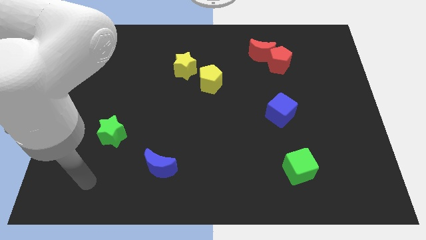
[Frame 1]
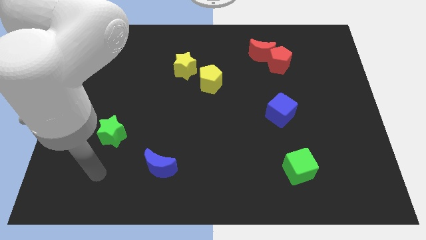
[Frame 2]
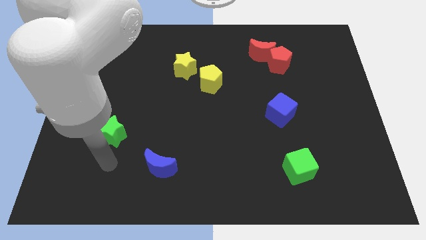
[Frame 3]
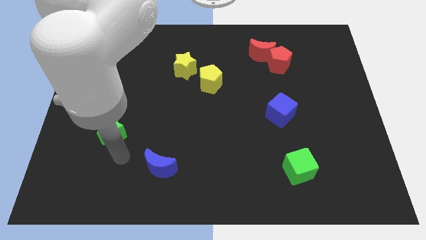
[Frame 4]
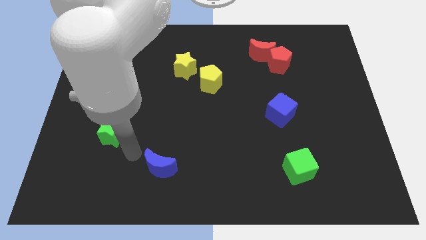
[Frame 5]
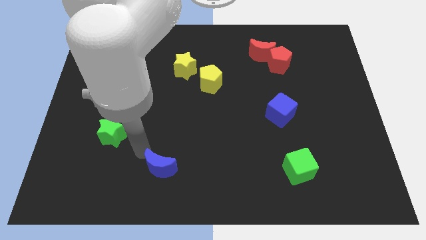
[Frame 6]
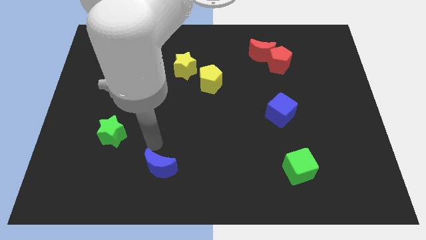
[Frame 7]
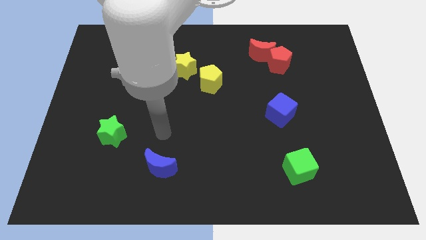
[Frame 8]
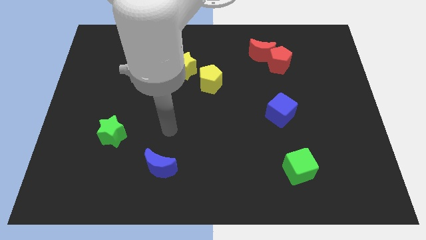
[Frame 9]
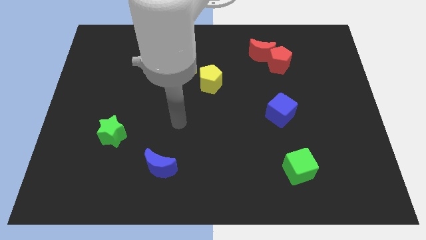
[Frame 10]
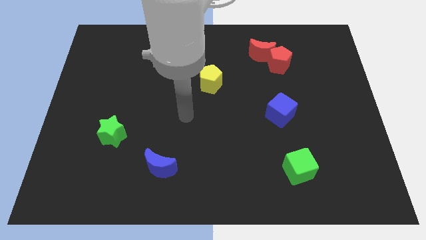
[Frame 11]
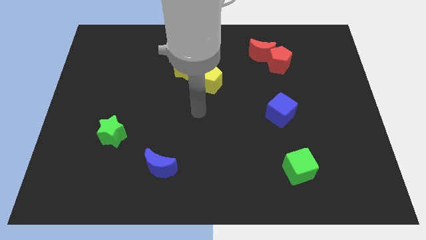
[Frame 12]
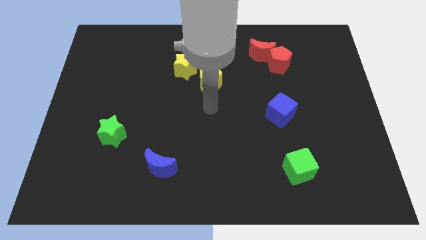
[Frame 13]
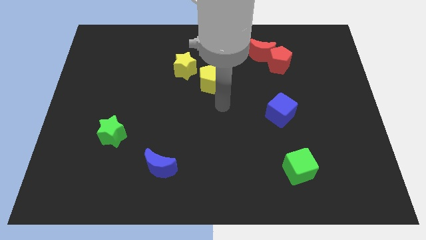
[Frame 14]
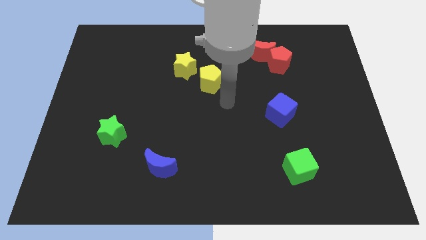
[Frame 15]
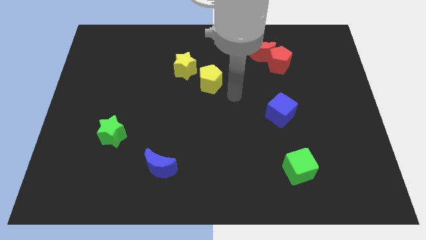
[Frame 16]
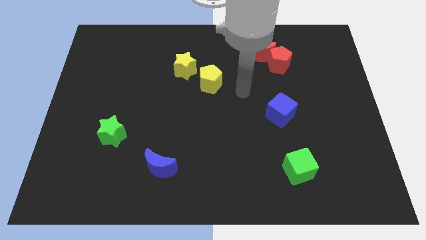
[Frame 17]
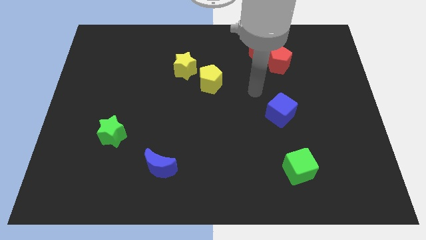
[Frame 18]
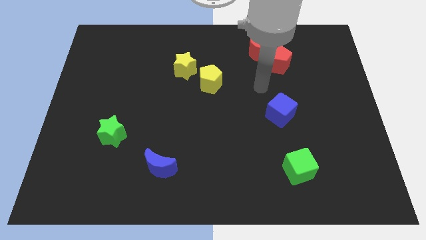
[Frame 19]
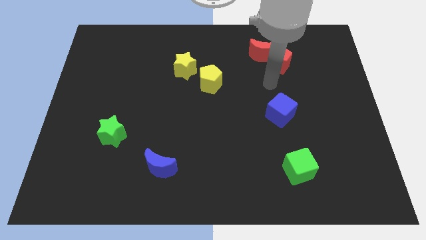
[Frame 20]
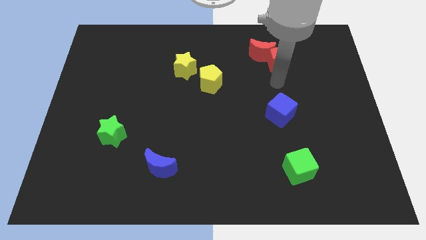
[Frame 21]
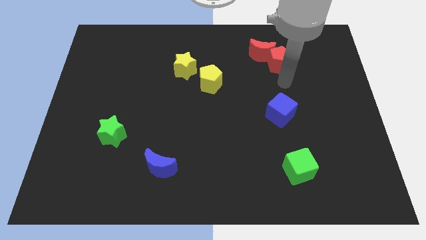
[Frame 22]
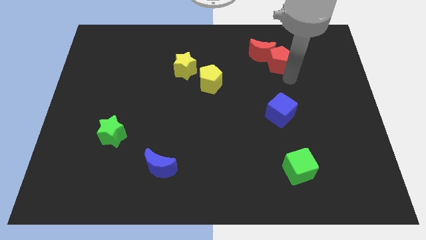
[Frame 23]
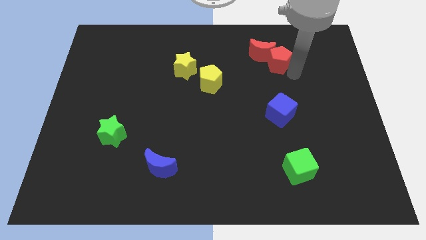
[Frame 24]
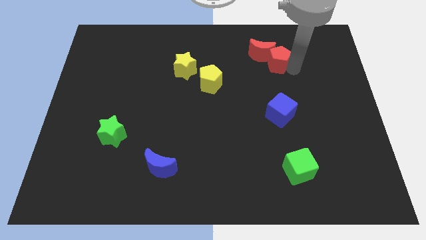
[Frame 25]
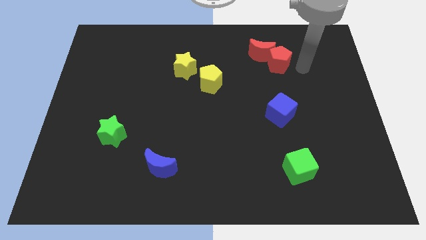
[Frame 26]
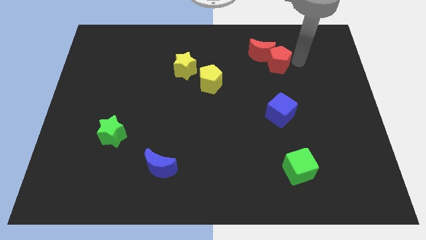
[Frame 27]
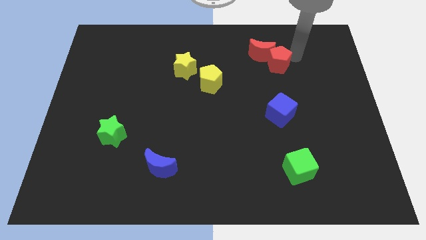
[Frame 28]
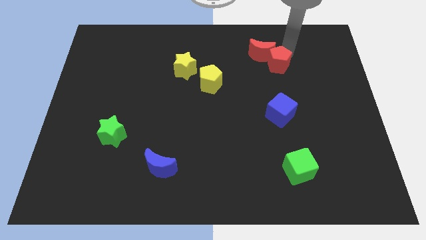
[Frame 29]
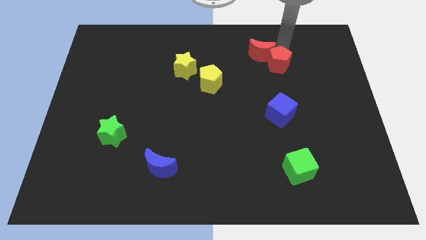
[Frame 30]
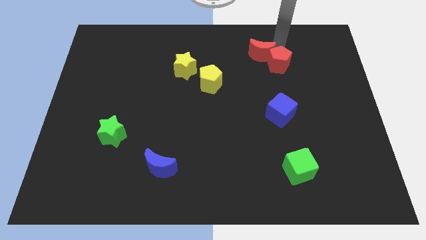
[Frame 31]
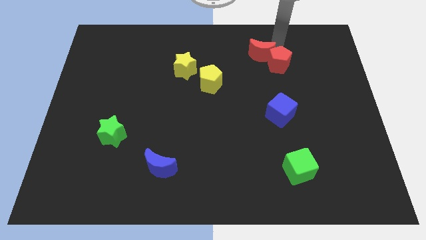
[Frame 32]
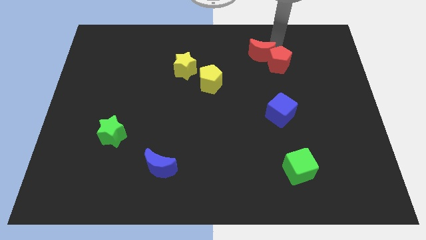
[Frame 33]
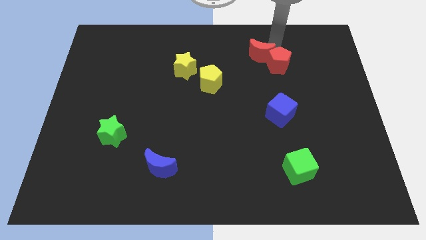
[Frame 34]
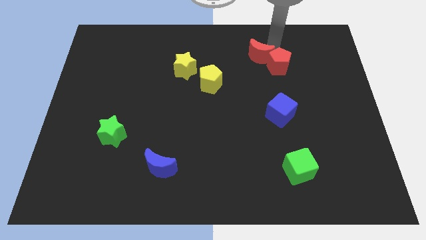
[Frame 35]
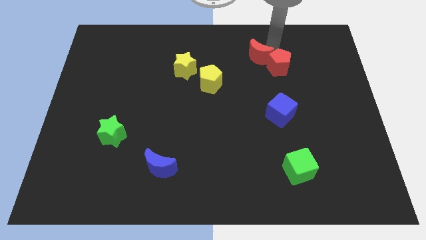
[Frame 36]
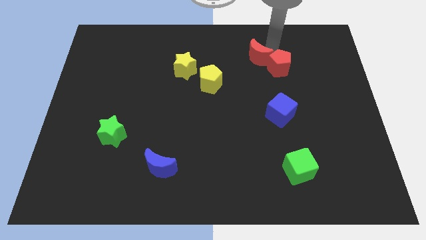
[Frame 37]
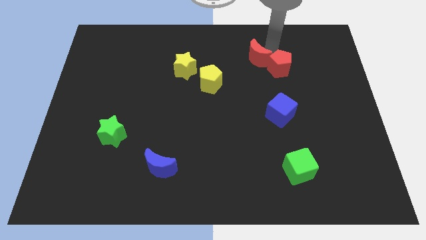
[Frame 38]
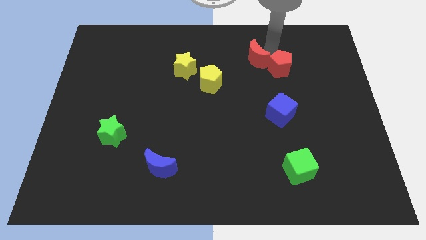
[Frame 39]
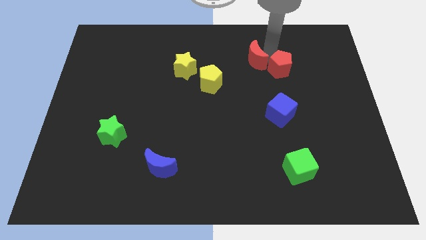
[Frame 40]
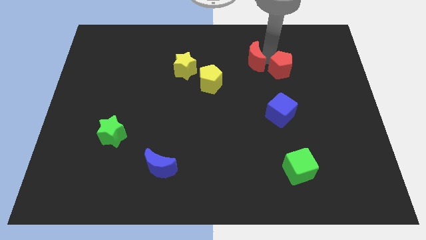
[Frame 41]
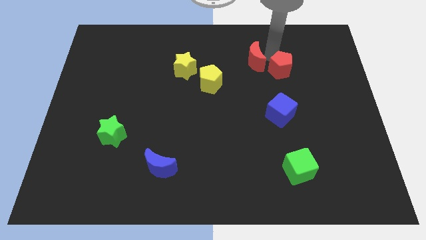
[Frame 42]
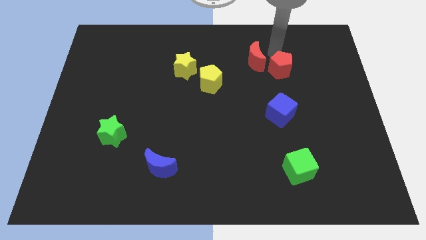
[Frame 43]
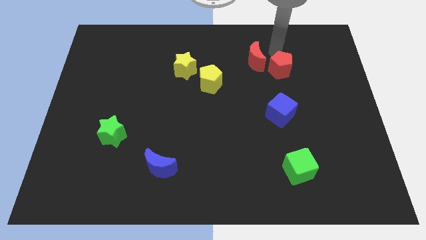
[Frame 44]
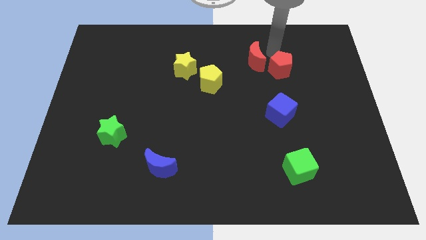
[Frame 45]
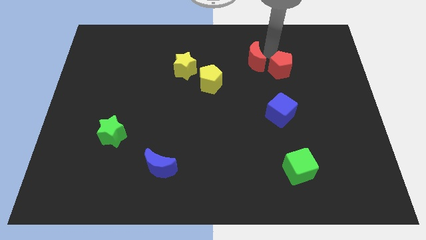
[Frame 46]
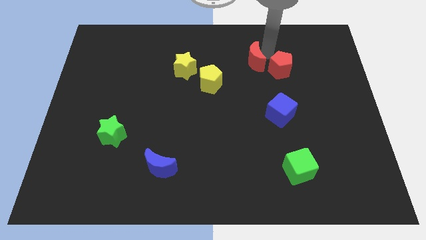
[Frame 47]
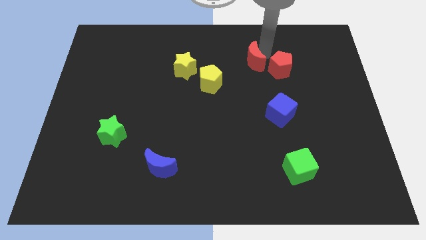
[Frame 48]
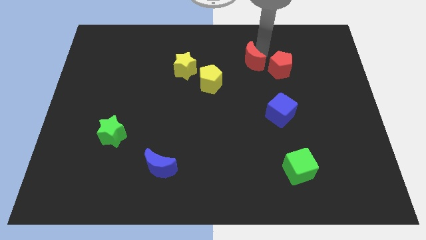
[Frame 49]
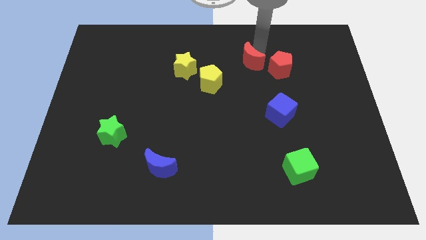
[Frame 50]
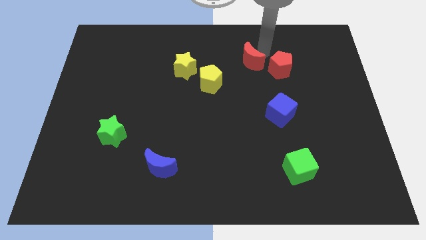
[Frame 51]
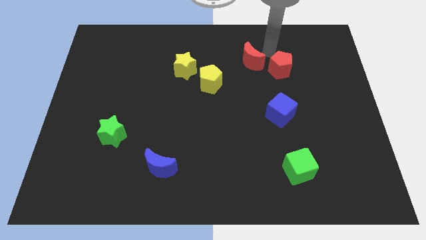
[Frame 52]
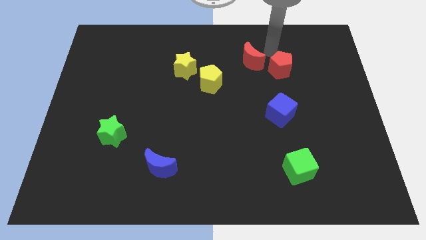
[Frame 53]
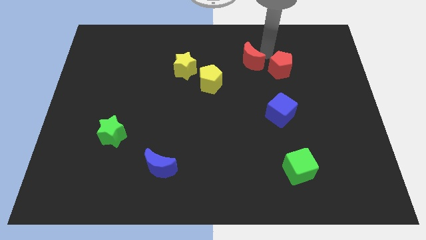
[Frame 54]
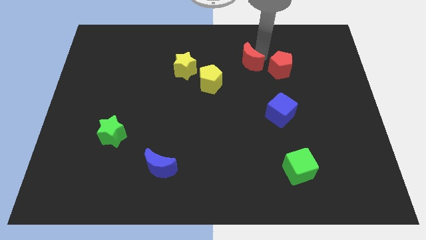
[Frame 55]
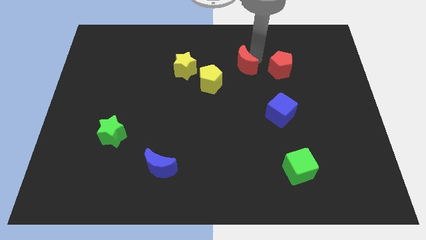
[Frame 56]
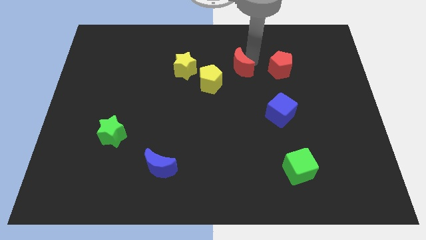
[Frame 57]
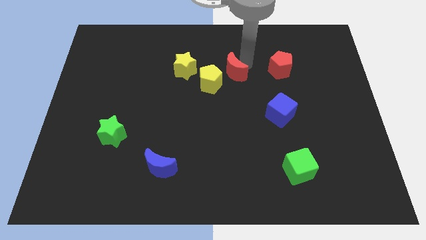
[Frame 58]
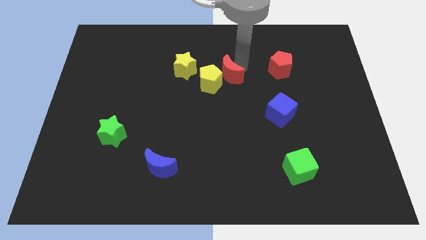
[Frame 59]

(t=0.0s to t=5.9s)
put the red moon to the yellow pentagon

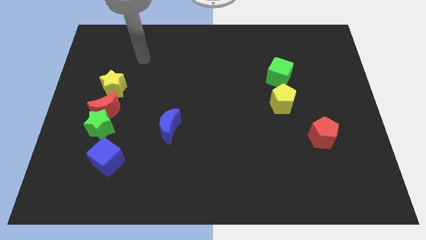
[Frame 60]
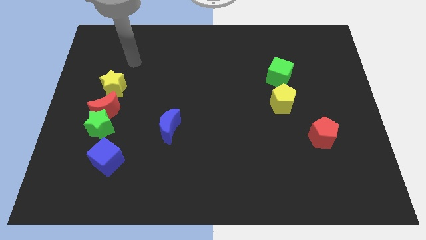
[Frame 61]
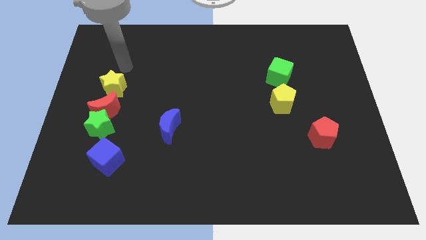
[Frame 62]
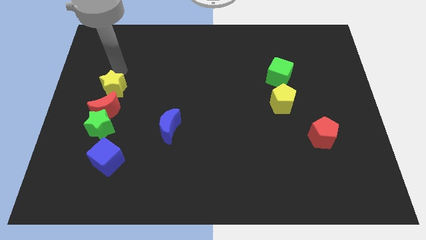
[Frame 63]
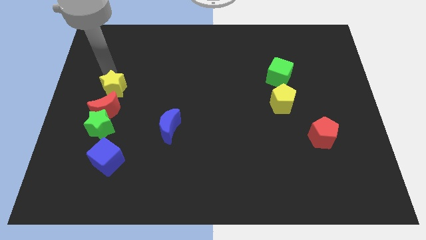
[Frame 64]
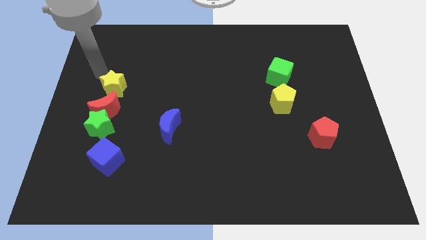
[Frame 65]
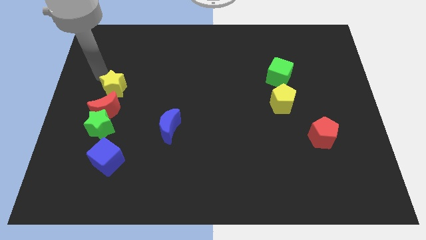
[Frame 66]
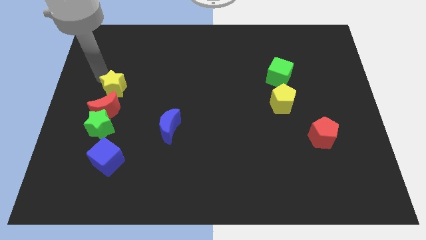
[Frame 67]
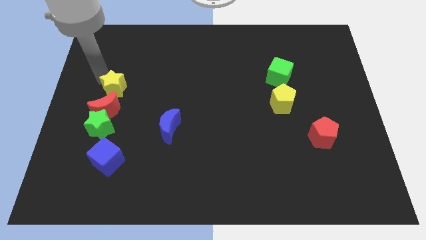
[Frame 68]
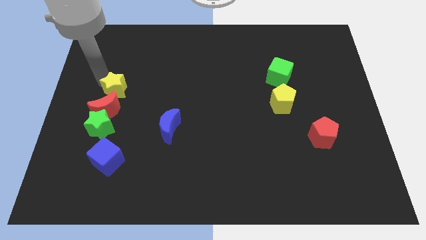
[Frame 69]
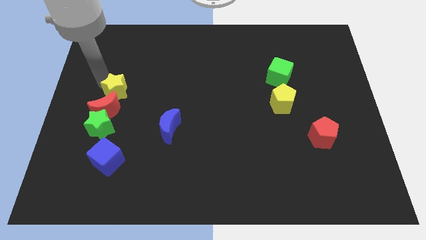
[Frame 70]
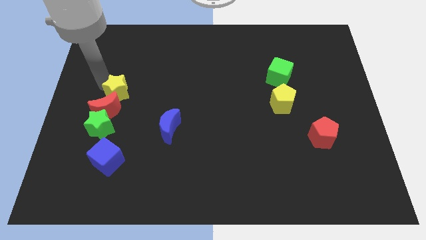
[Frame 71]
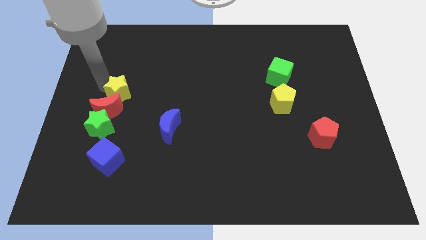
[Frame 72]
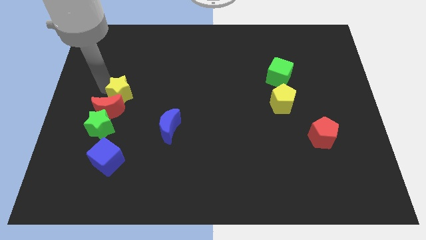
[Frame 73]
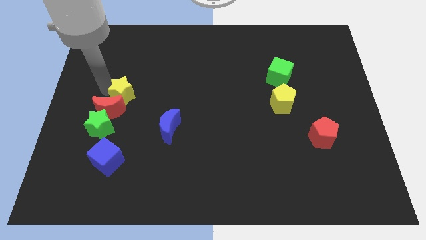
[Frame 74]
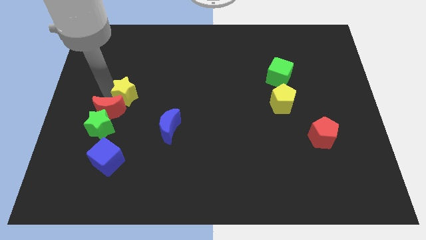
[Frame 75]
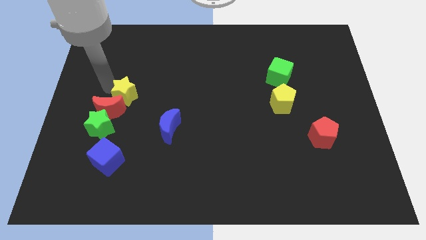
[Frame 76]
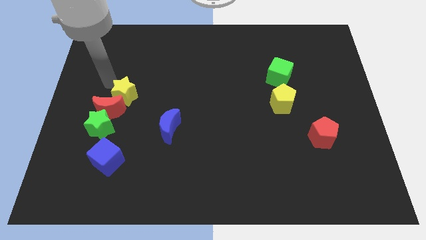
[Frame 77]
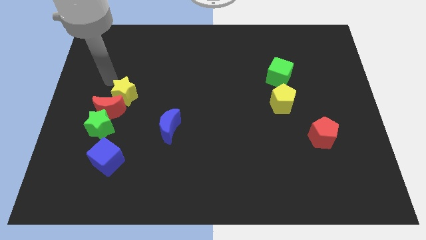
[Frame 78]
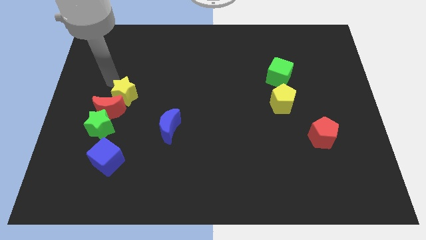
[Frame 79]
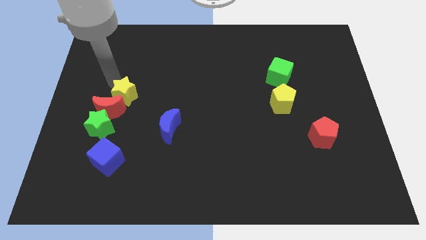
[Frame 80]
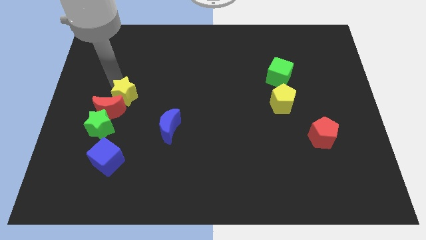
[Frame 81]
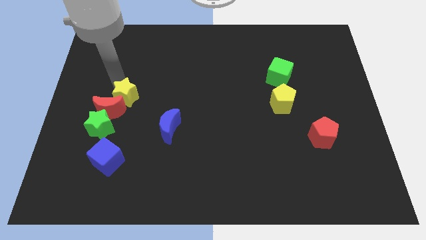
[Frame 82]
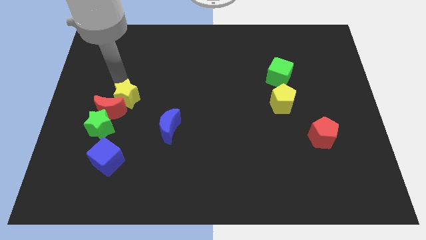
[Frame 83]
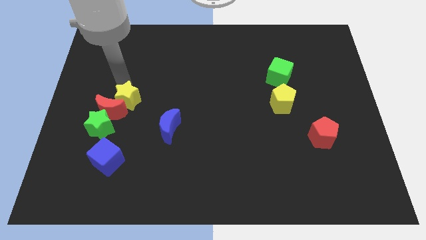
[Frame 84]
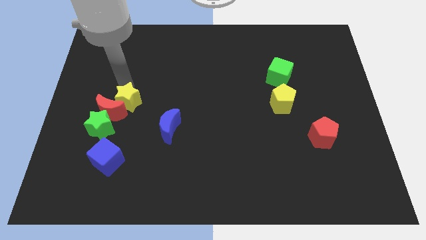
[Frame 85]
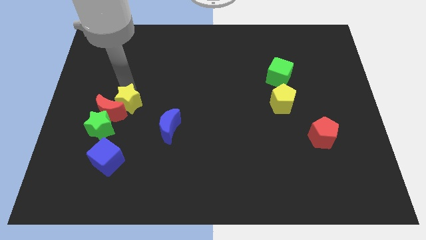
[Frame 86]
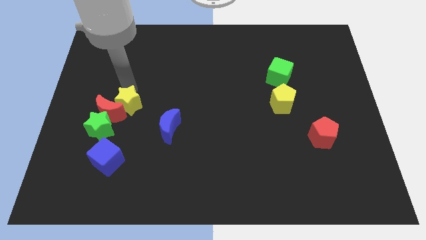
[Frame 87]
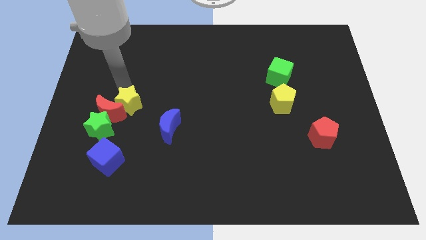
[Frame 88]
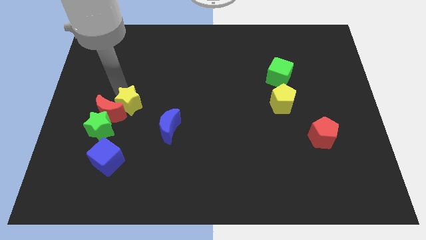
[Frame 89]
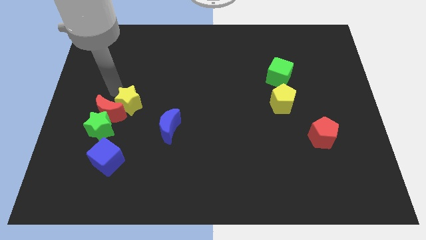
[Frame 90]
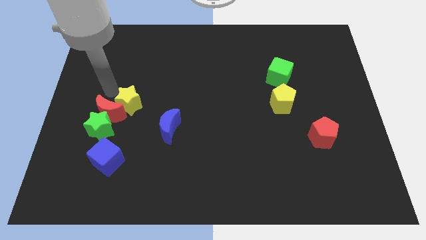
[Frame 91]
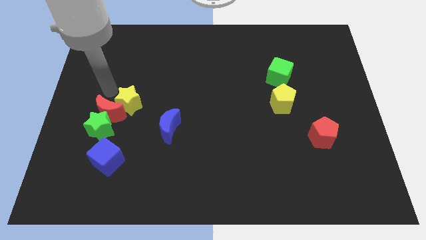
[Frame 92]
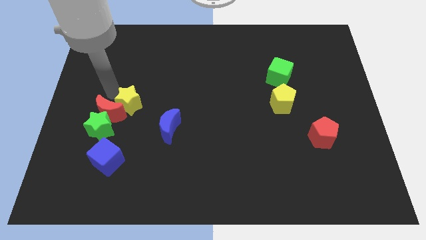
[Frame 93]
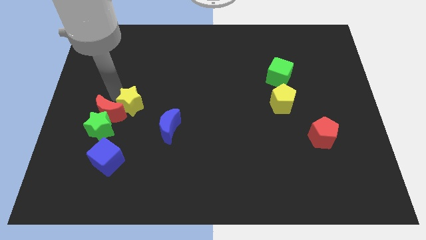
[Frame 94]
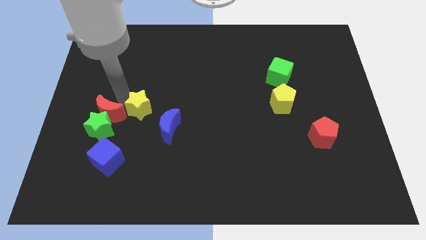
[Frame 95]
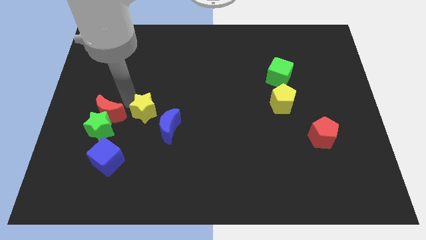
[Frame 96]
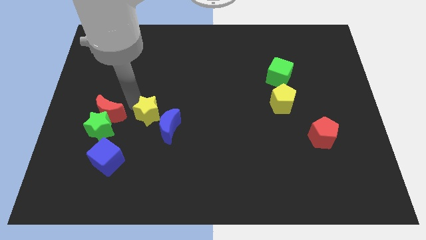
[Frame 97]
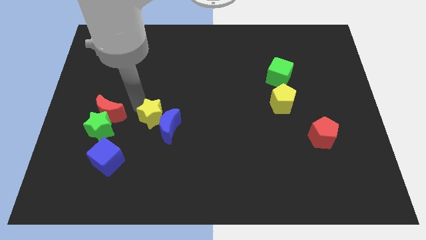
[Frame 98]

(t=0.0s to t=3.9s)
push the yellow star to the blue moon
